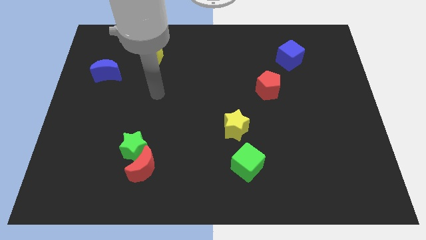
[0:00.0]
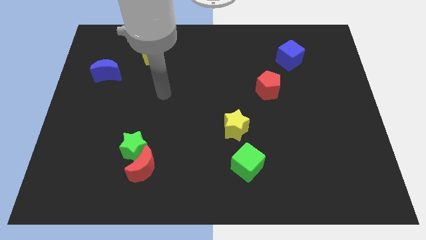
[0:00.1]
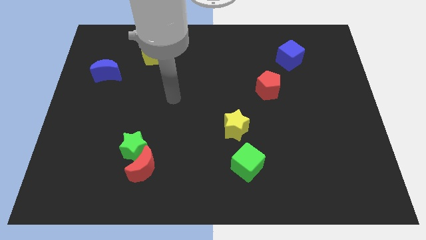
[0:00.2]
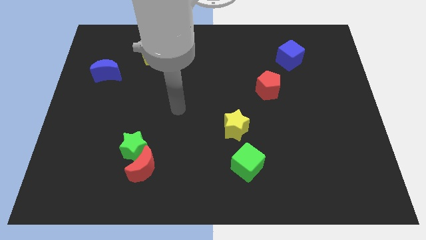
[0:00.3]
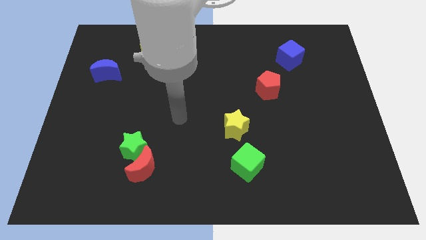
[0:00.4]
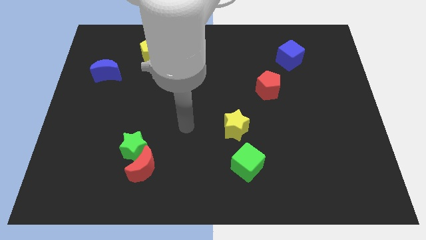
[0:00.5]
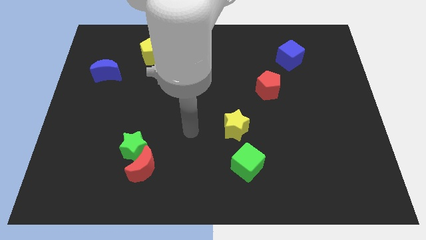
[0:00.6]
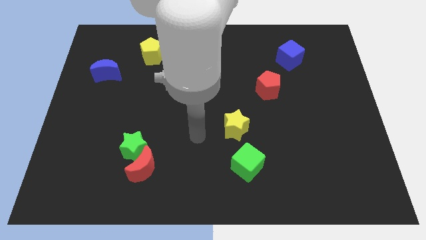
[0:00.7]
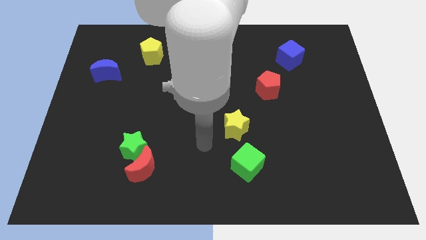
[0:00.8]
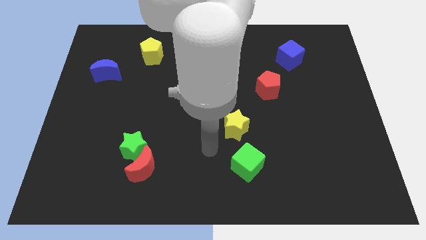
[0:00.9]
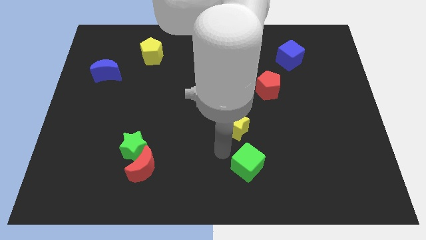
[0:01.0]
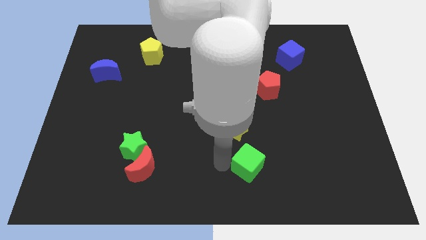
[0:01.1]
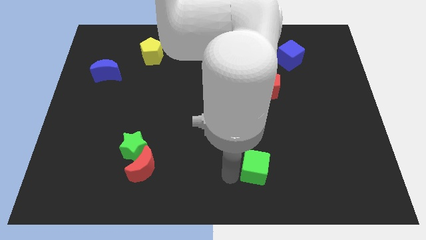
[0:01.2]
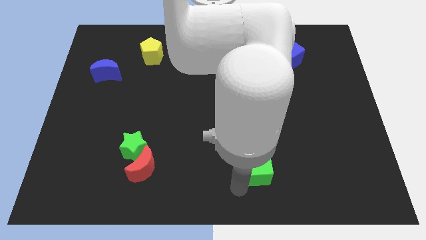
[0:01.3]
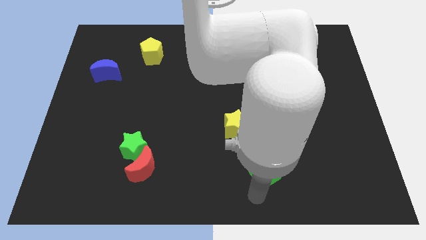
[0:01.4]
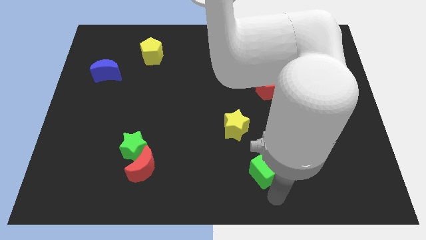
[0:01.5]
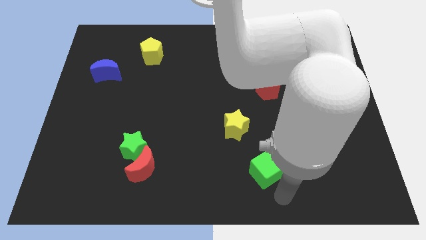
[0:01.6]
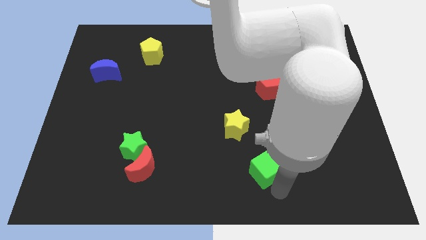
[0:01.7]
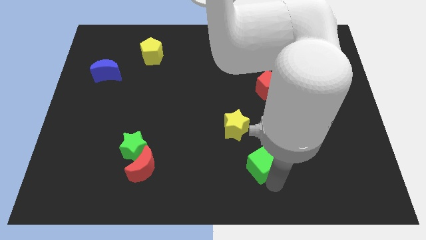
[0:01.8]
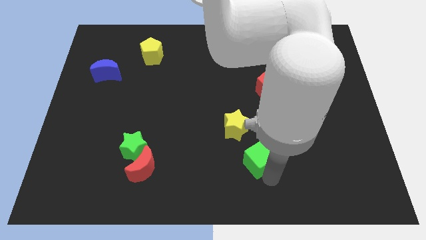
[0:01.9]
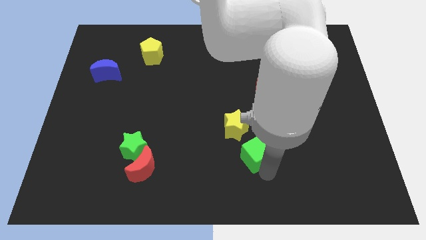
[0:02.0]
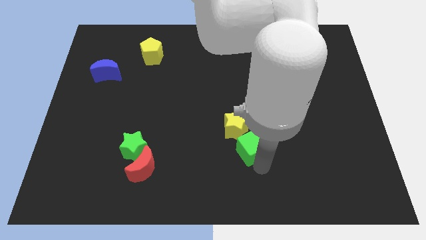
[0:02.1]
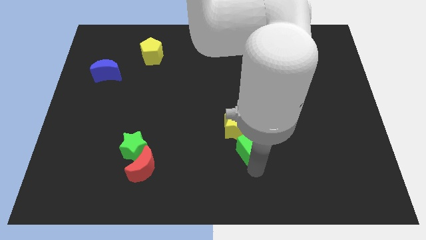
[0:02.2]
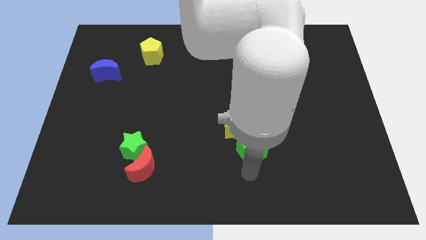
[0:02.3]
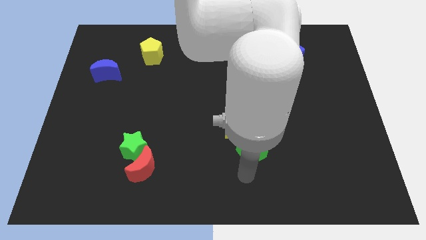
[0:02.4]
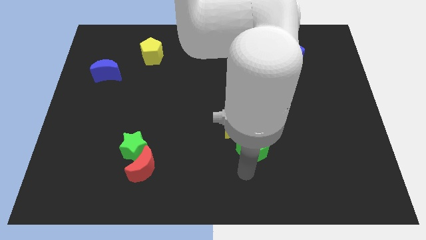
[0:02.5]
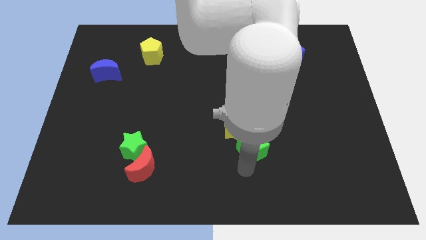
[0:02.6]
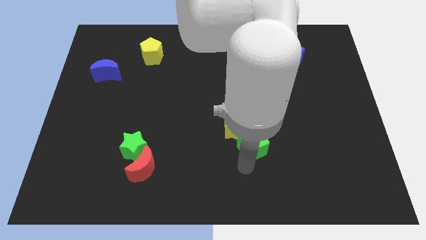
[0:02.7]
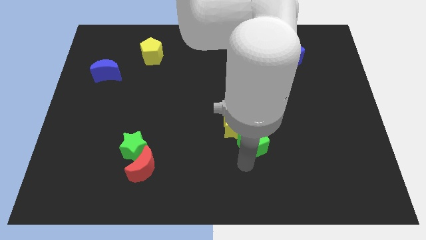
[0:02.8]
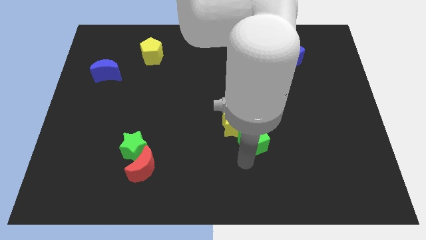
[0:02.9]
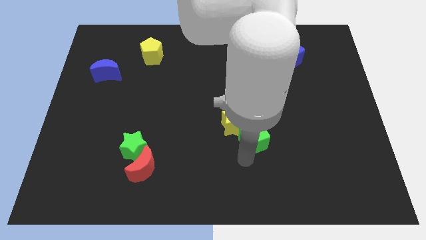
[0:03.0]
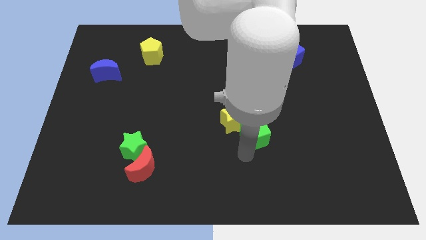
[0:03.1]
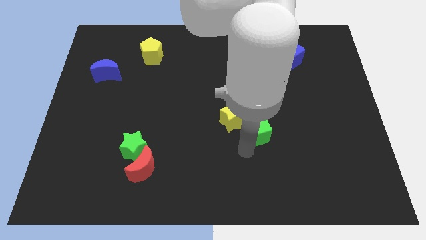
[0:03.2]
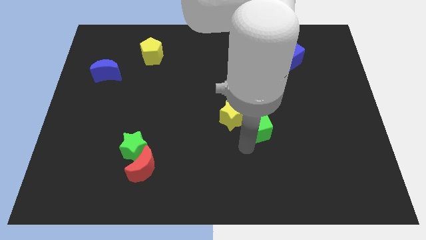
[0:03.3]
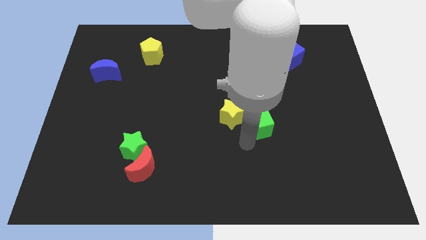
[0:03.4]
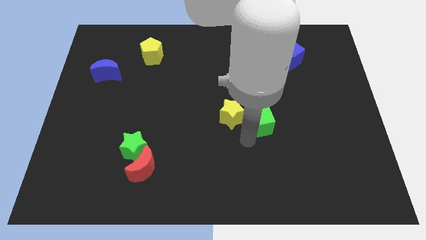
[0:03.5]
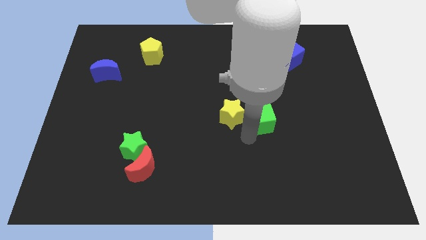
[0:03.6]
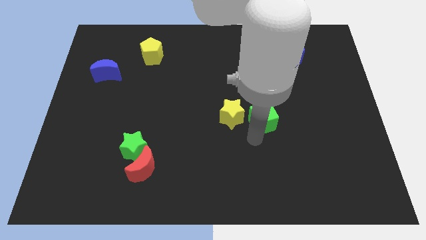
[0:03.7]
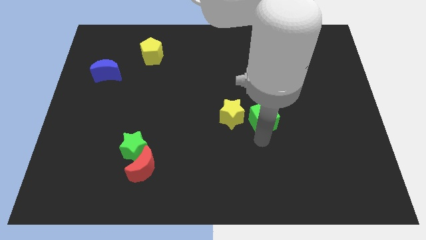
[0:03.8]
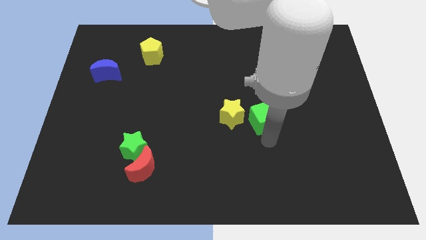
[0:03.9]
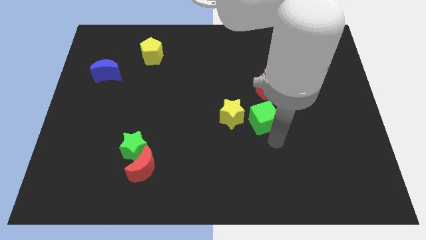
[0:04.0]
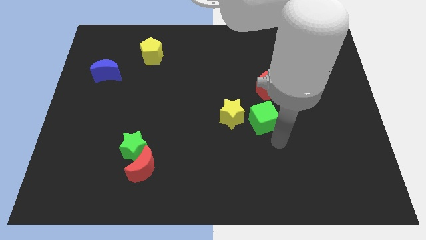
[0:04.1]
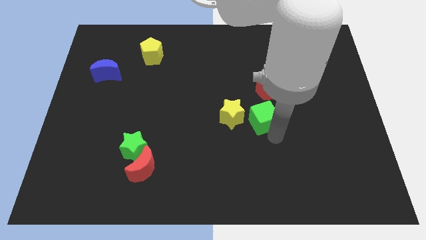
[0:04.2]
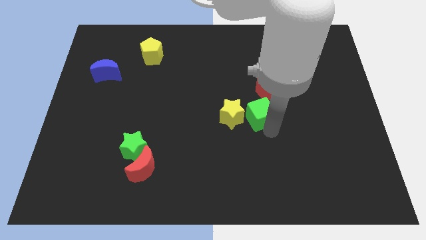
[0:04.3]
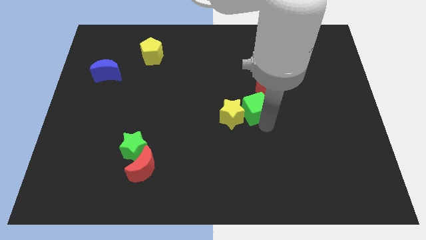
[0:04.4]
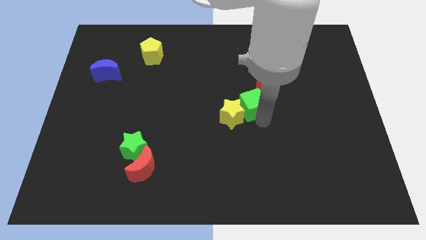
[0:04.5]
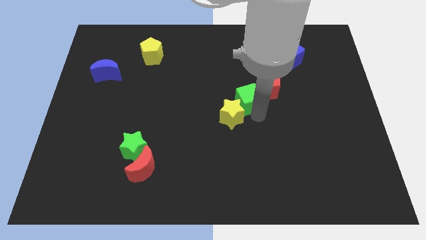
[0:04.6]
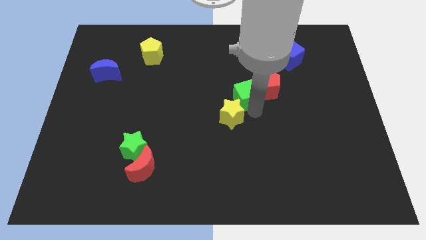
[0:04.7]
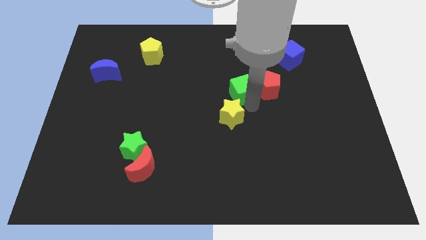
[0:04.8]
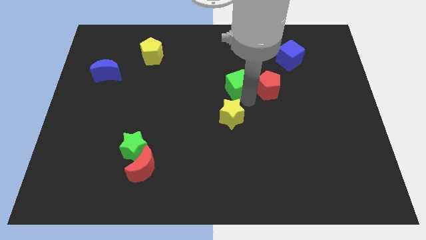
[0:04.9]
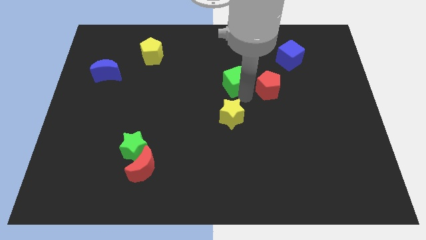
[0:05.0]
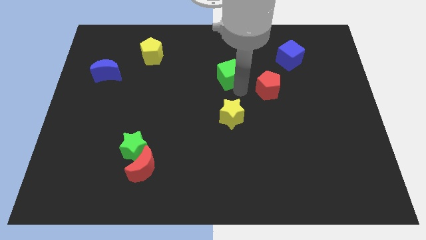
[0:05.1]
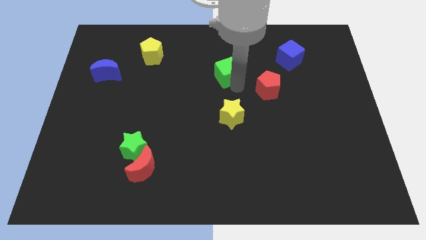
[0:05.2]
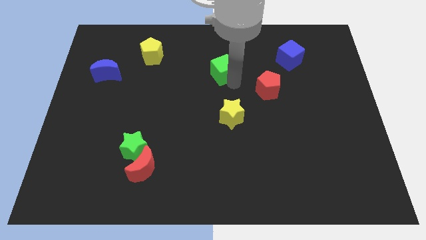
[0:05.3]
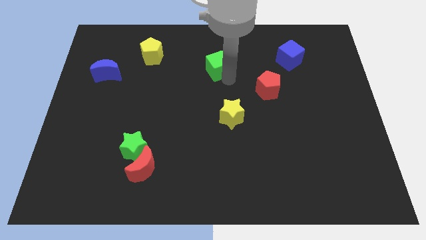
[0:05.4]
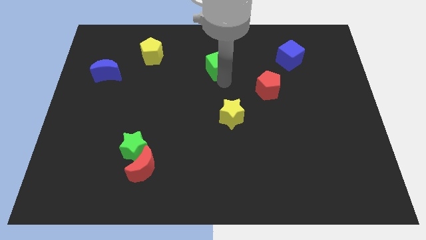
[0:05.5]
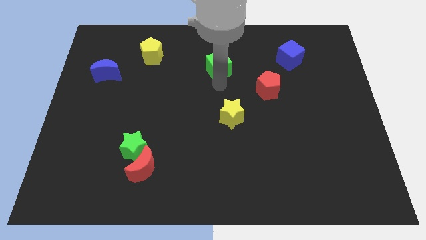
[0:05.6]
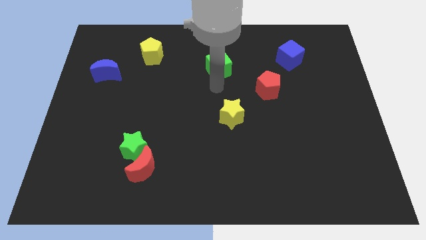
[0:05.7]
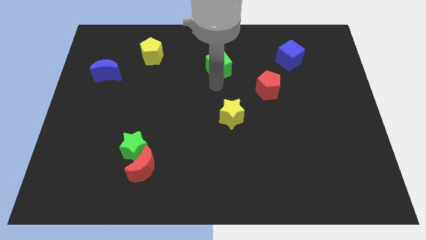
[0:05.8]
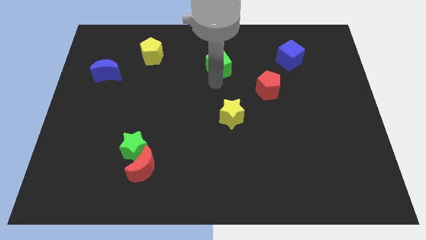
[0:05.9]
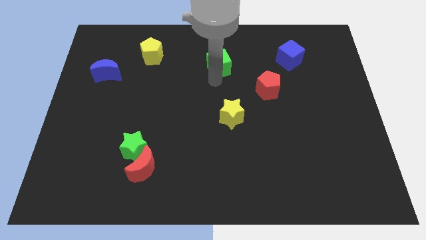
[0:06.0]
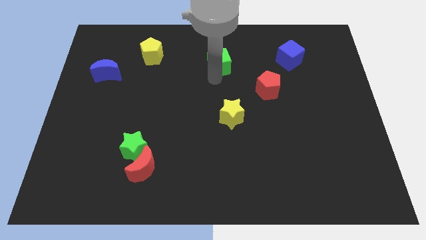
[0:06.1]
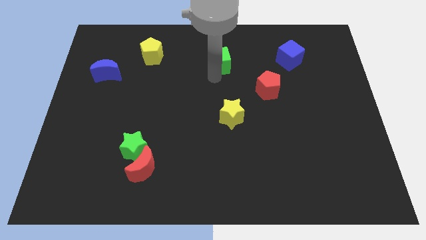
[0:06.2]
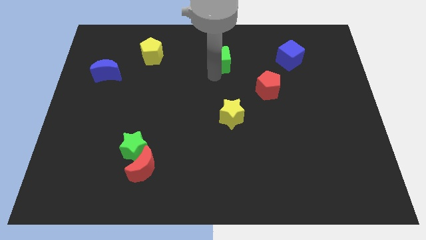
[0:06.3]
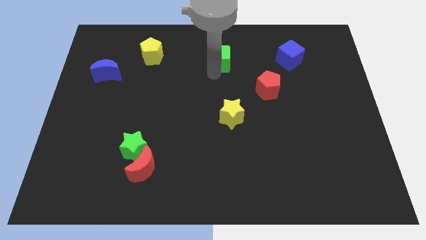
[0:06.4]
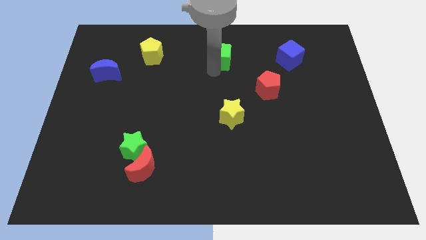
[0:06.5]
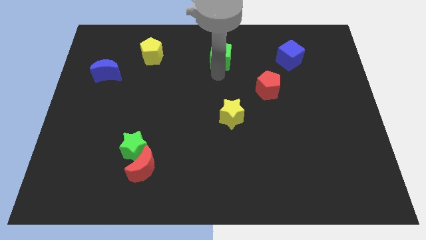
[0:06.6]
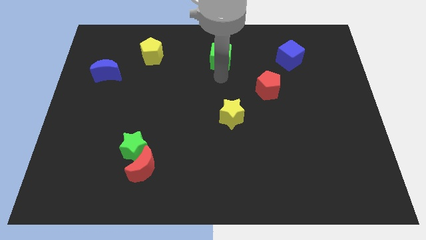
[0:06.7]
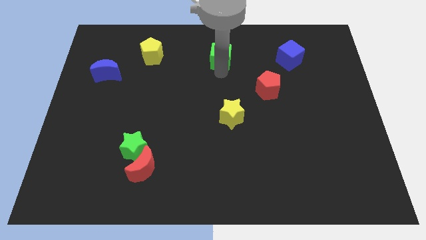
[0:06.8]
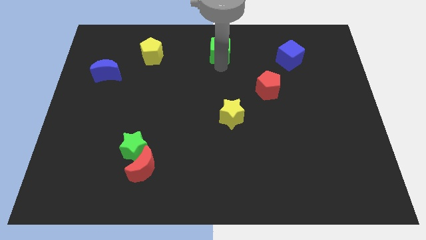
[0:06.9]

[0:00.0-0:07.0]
slide the green cube to the towards your base

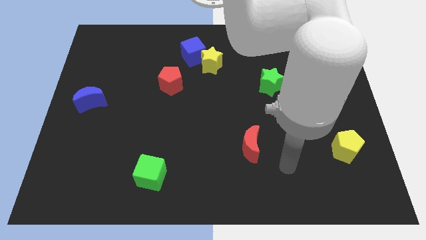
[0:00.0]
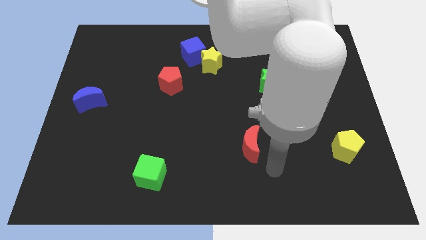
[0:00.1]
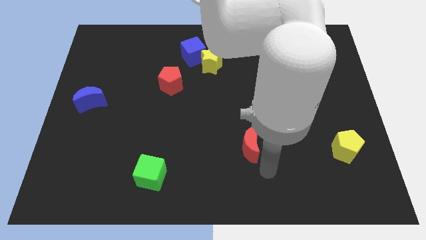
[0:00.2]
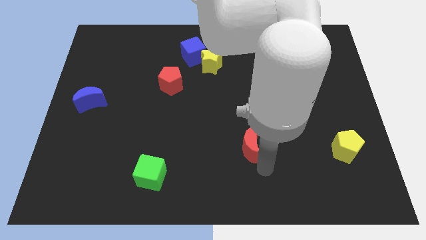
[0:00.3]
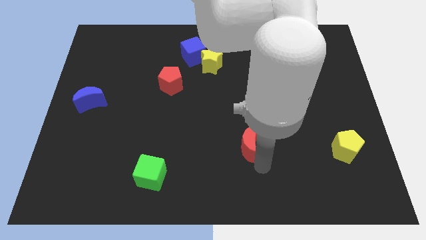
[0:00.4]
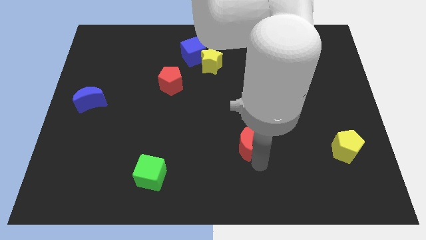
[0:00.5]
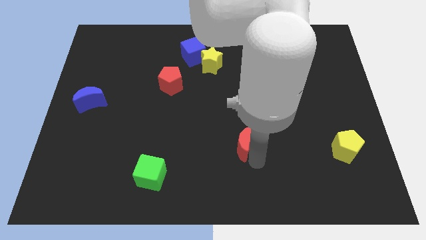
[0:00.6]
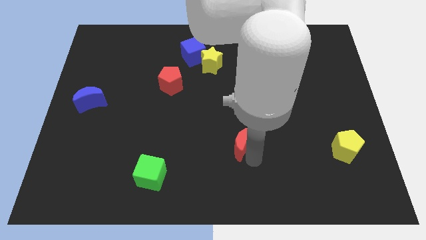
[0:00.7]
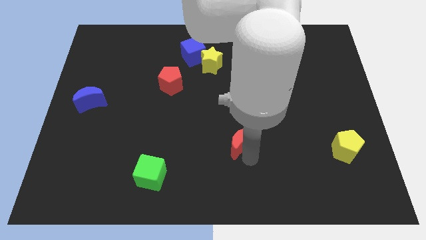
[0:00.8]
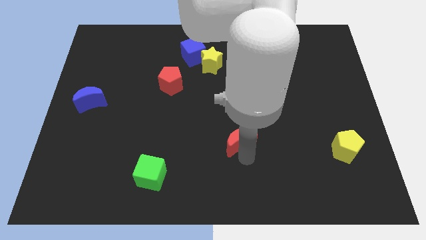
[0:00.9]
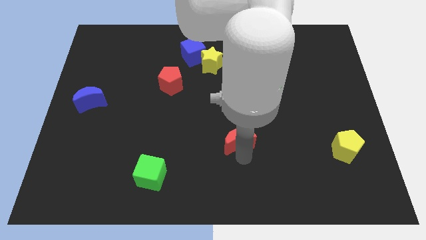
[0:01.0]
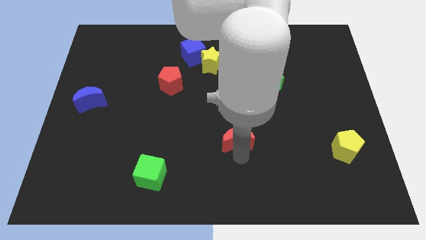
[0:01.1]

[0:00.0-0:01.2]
put the red moon to the middle of the board
